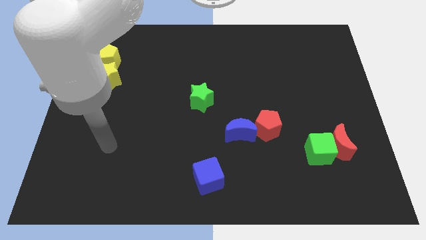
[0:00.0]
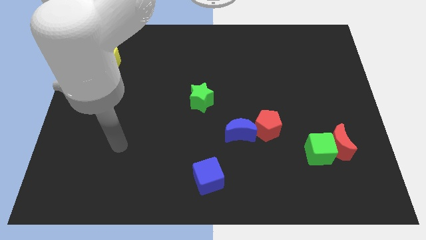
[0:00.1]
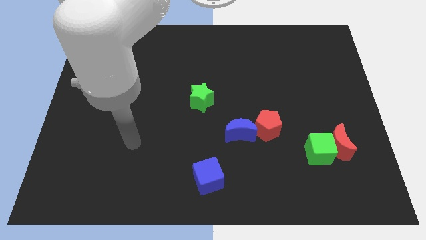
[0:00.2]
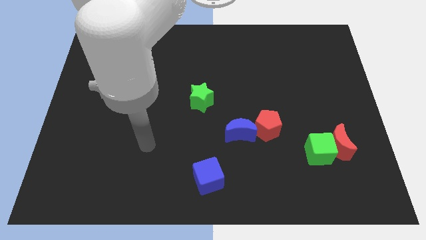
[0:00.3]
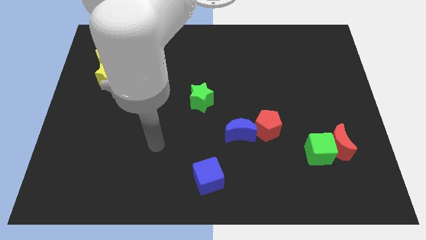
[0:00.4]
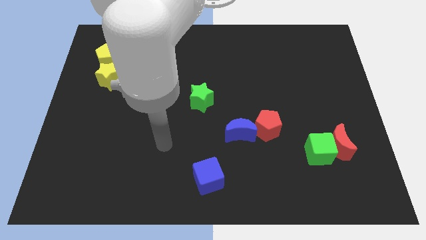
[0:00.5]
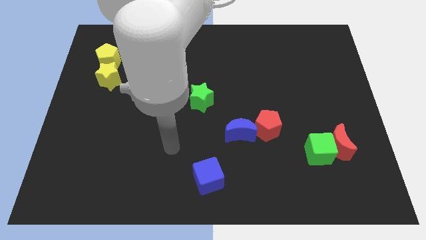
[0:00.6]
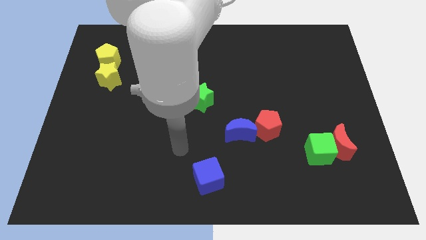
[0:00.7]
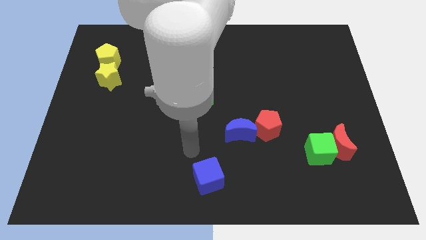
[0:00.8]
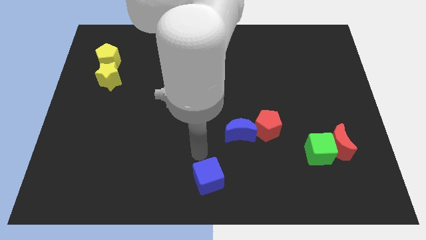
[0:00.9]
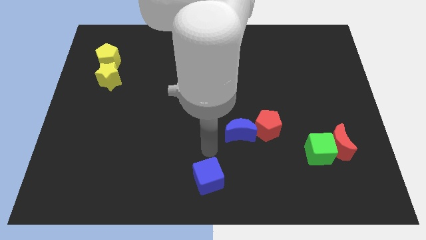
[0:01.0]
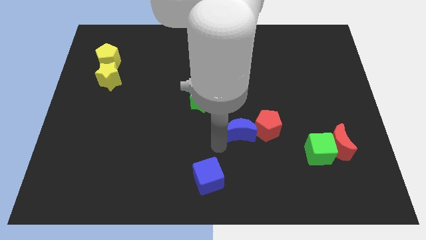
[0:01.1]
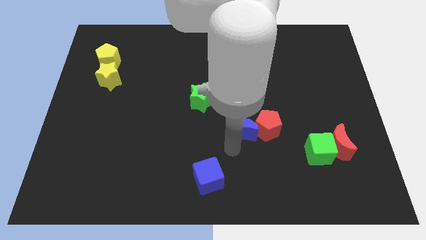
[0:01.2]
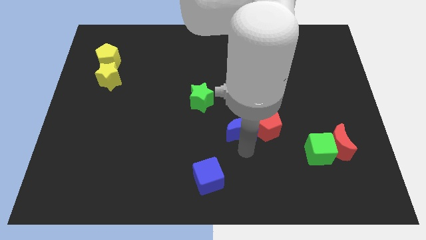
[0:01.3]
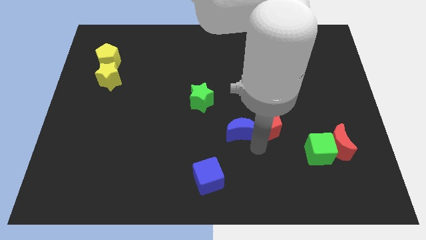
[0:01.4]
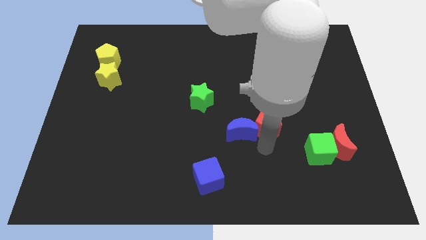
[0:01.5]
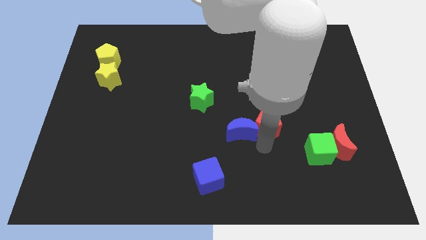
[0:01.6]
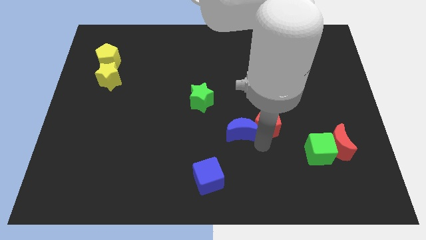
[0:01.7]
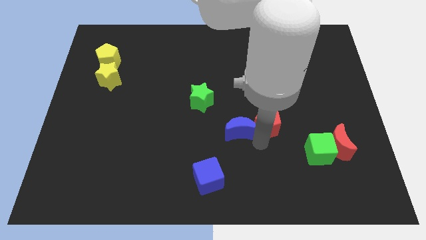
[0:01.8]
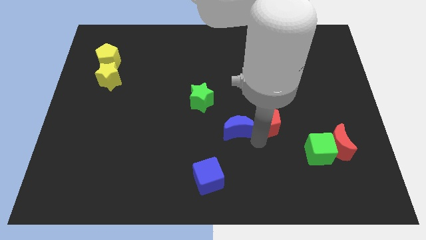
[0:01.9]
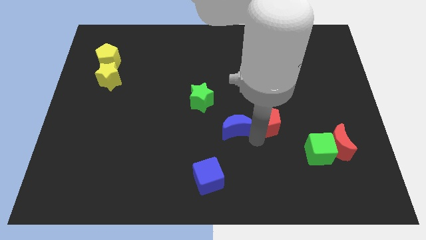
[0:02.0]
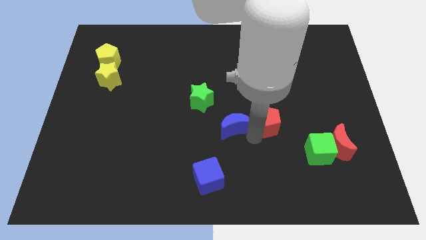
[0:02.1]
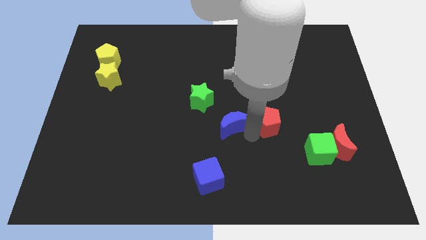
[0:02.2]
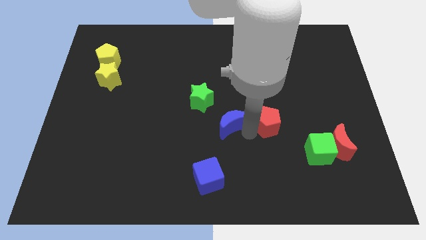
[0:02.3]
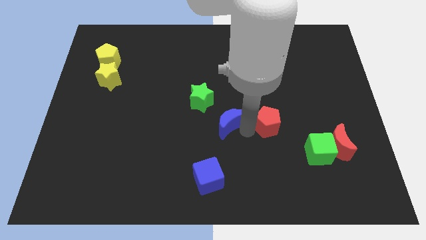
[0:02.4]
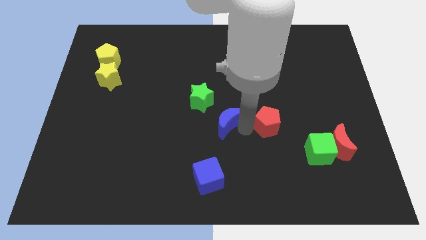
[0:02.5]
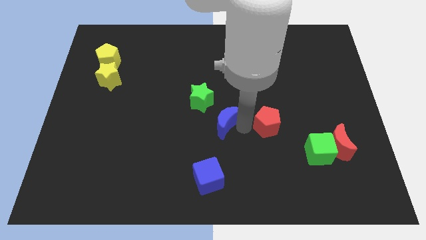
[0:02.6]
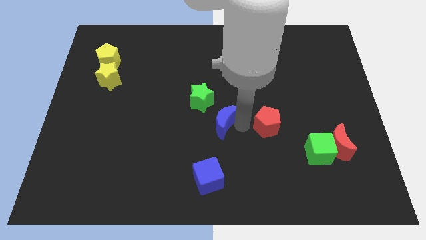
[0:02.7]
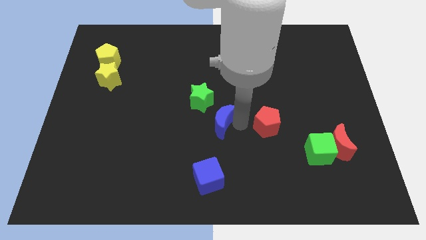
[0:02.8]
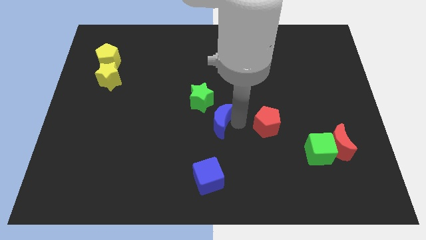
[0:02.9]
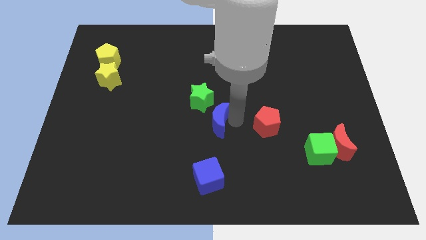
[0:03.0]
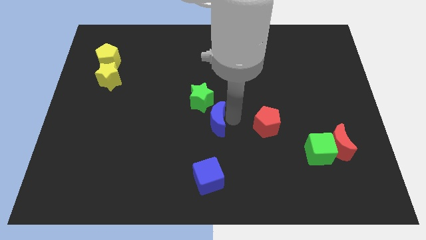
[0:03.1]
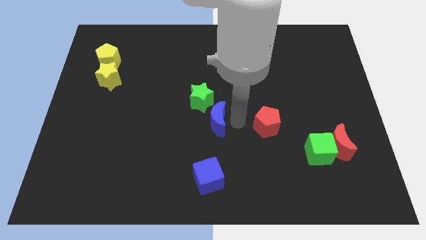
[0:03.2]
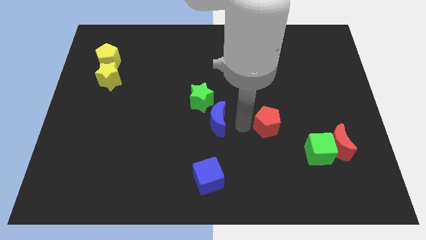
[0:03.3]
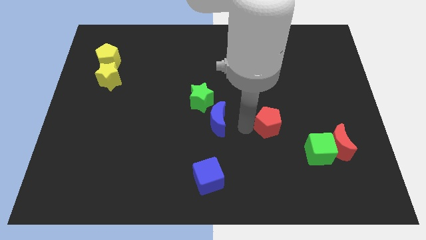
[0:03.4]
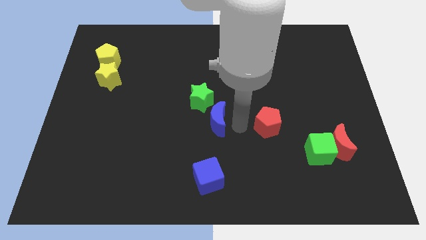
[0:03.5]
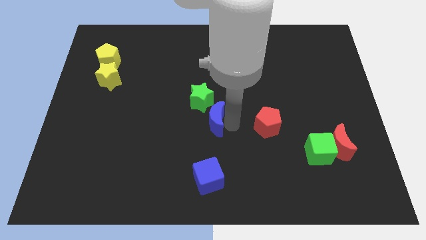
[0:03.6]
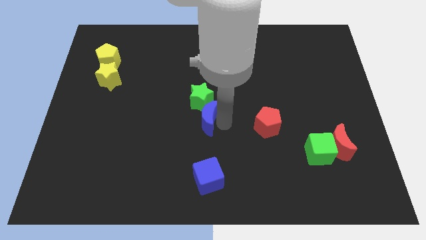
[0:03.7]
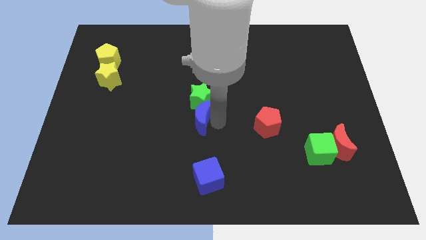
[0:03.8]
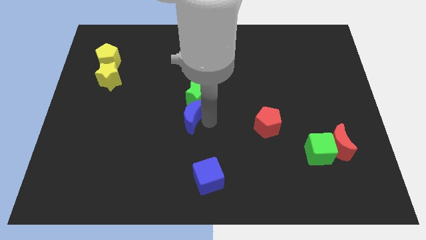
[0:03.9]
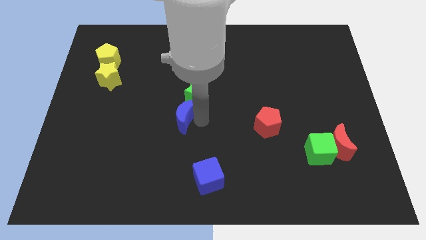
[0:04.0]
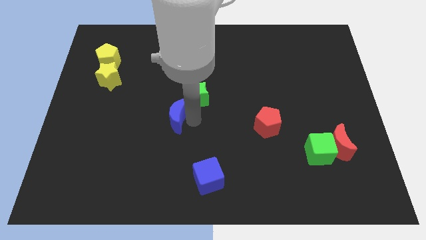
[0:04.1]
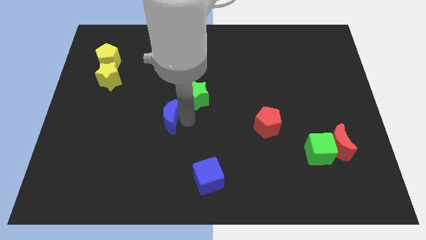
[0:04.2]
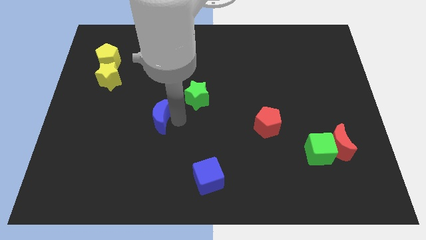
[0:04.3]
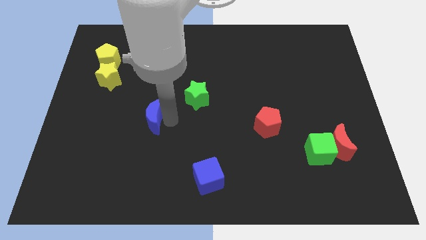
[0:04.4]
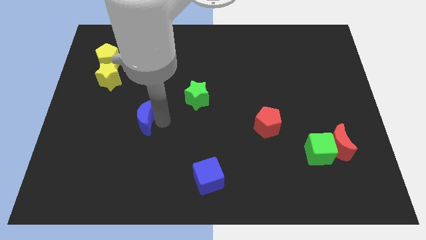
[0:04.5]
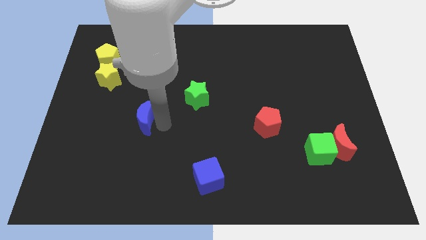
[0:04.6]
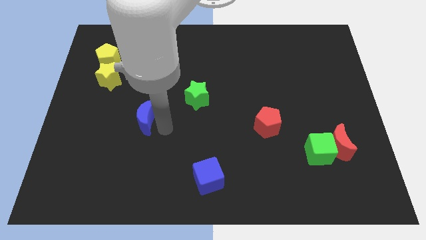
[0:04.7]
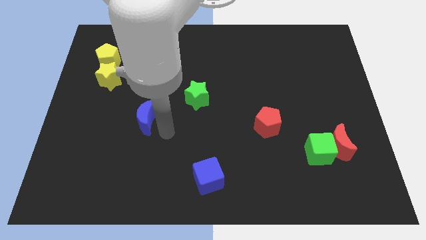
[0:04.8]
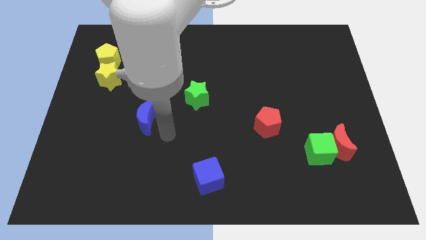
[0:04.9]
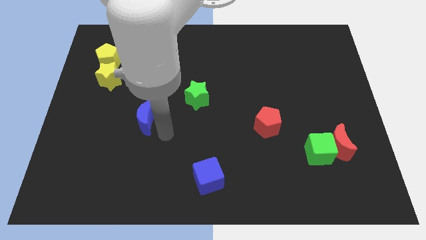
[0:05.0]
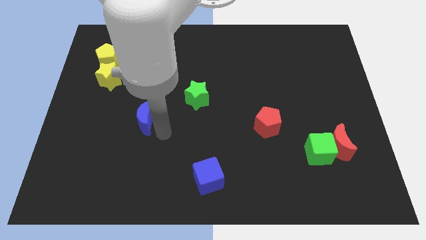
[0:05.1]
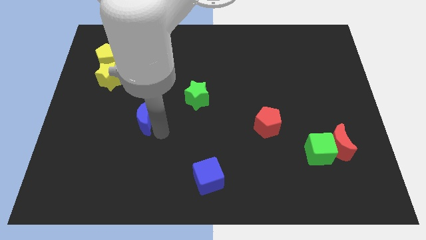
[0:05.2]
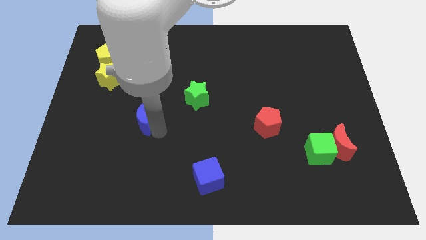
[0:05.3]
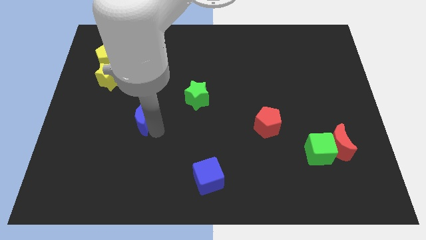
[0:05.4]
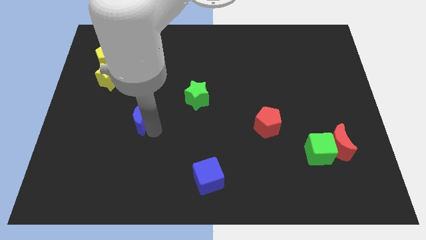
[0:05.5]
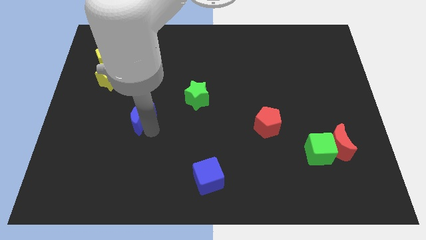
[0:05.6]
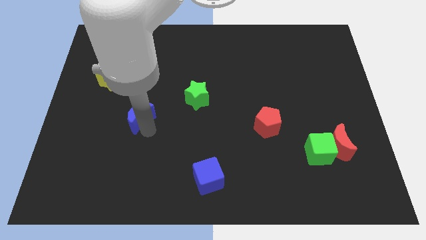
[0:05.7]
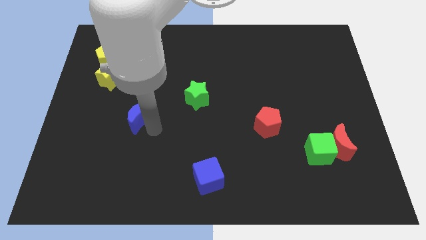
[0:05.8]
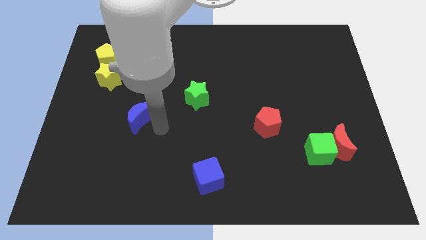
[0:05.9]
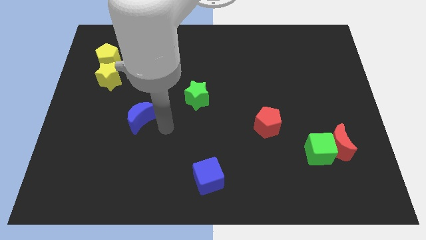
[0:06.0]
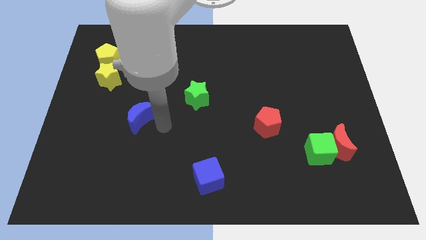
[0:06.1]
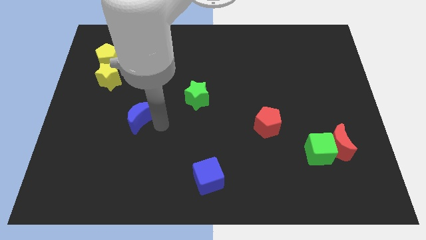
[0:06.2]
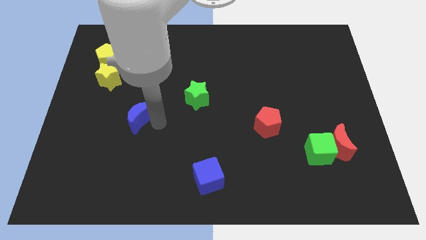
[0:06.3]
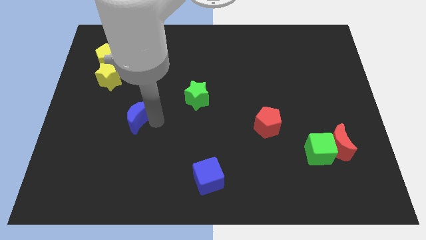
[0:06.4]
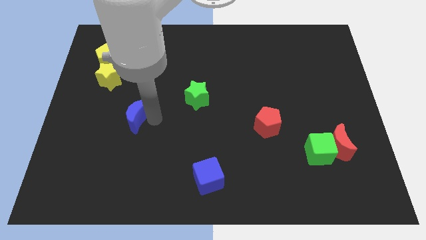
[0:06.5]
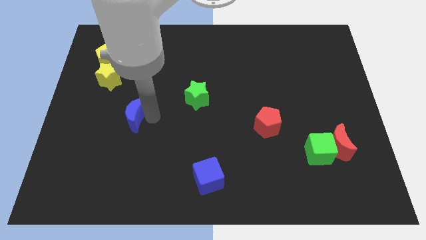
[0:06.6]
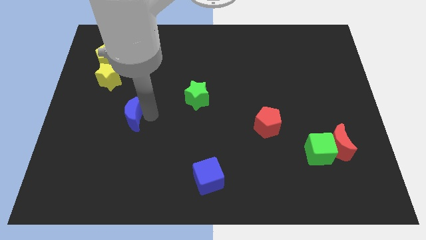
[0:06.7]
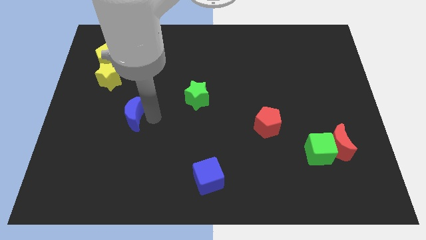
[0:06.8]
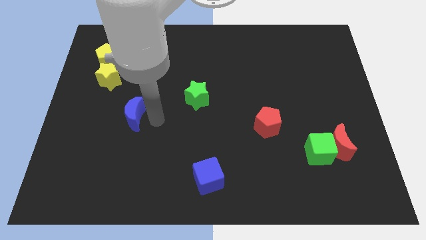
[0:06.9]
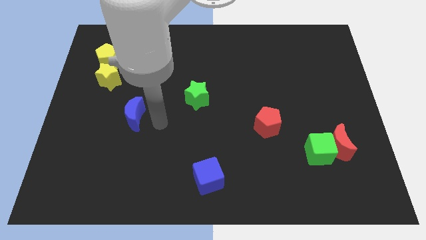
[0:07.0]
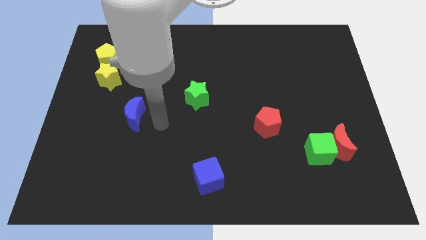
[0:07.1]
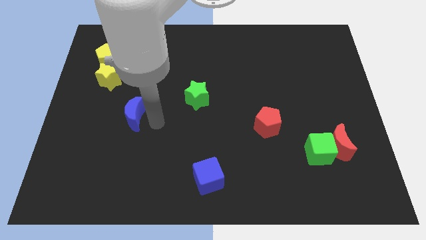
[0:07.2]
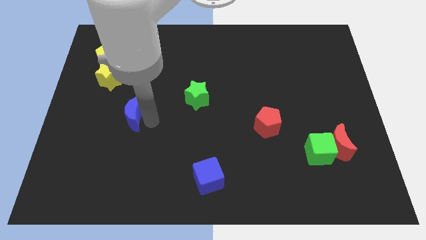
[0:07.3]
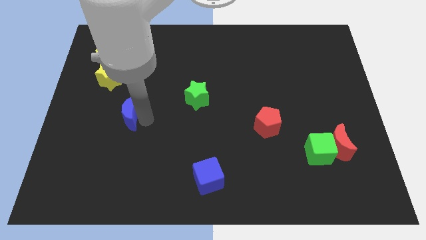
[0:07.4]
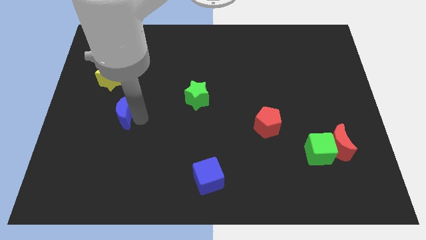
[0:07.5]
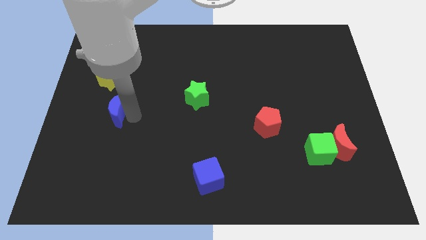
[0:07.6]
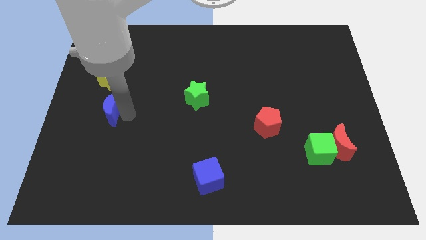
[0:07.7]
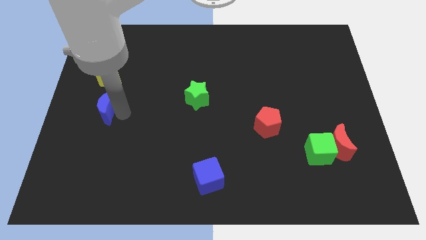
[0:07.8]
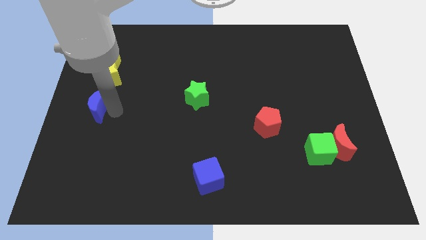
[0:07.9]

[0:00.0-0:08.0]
put the blue moon to the left side of the board
